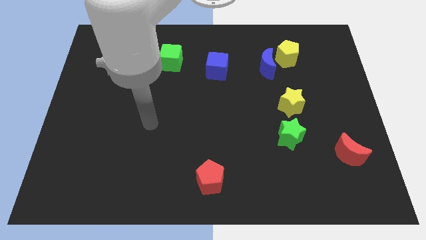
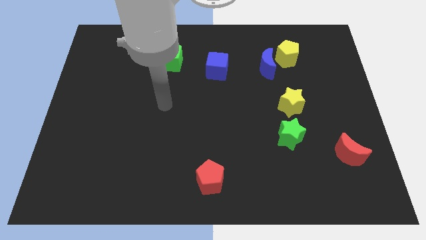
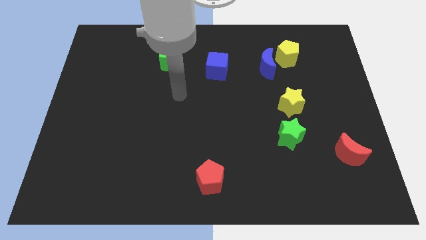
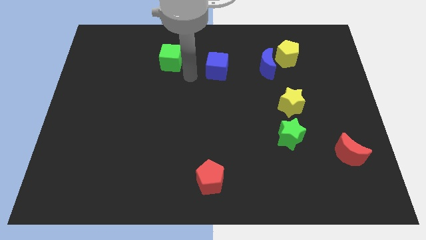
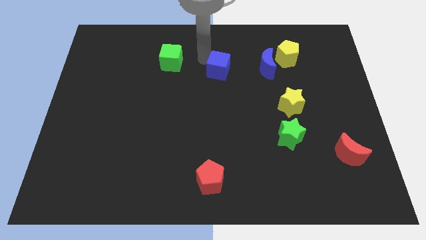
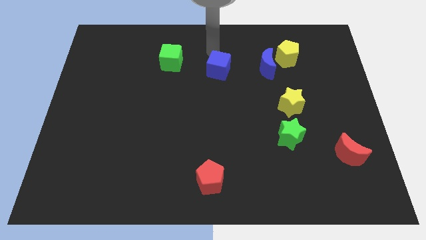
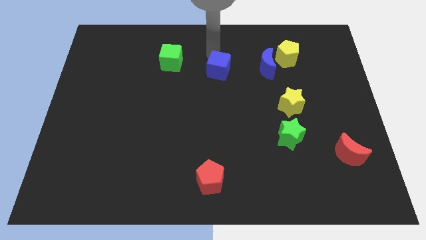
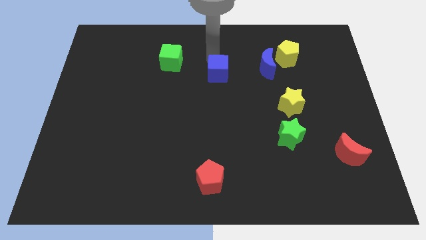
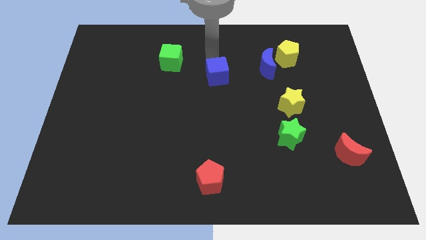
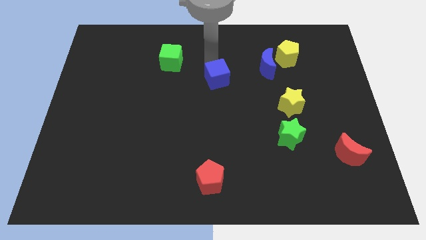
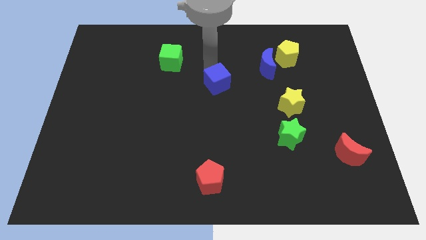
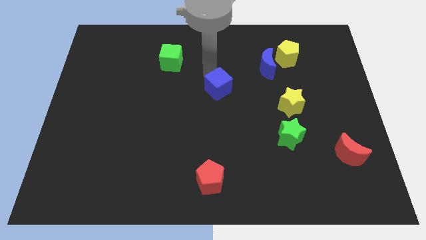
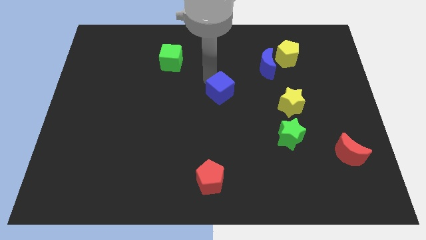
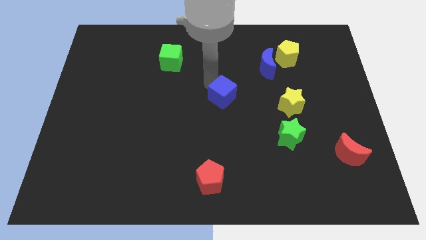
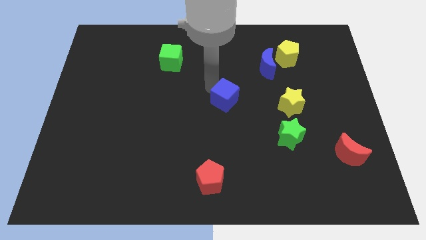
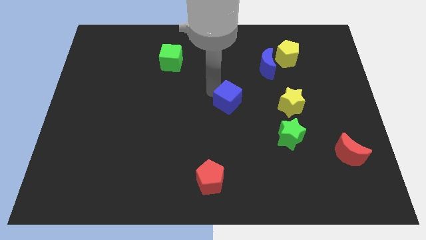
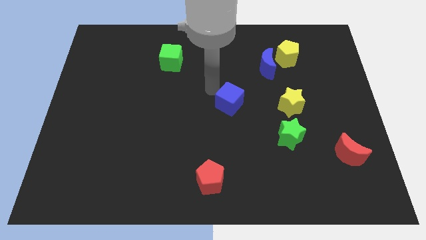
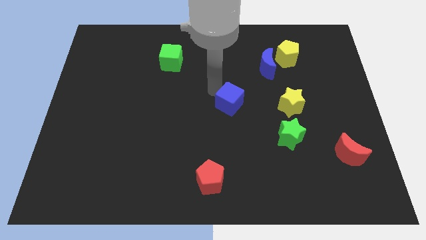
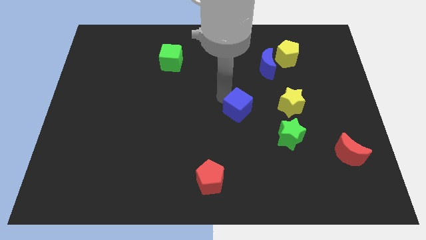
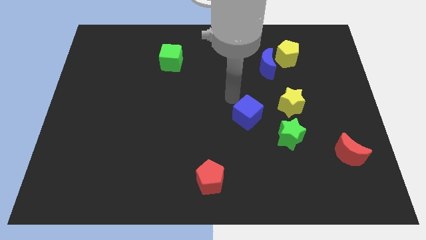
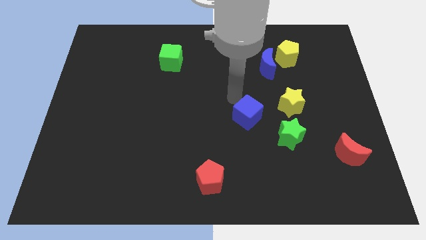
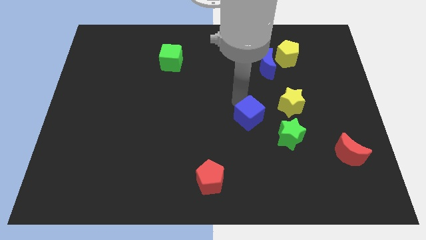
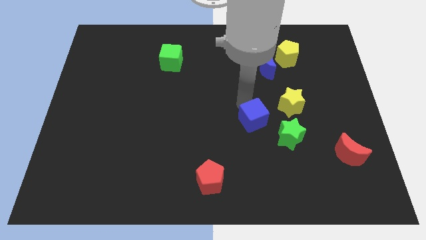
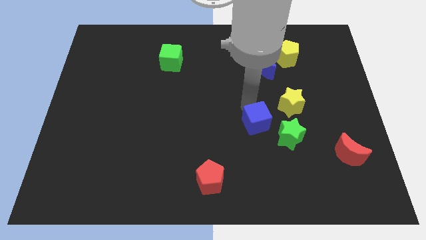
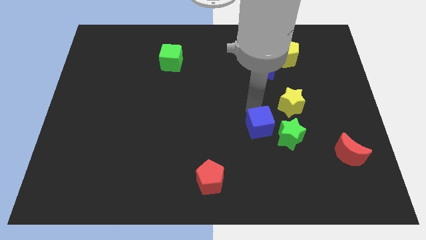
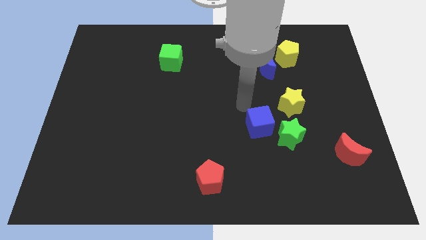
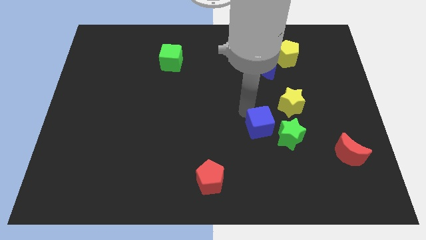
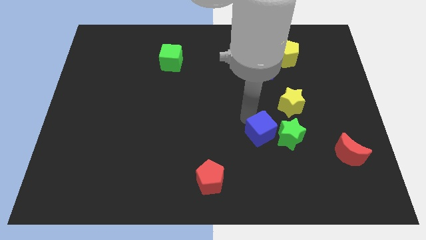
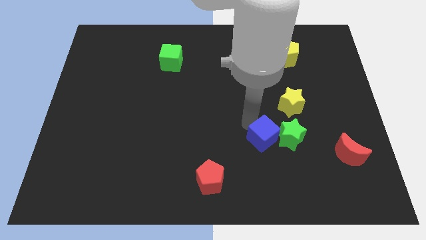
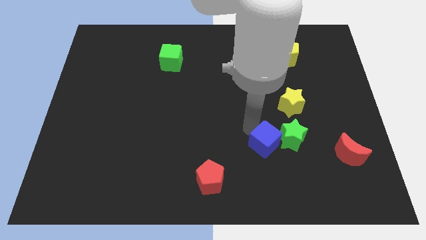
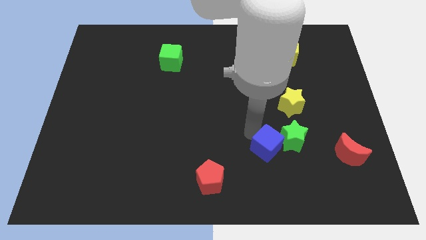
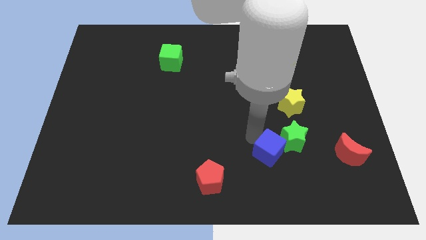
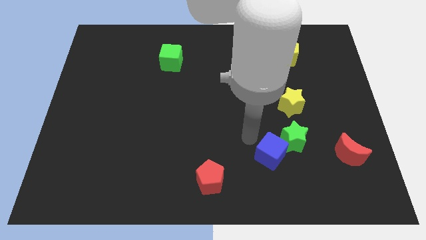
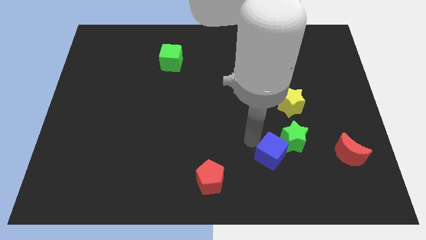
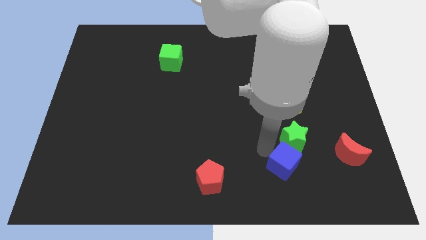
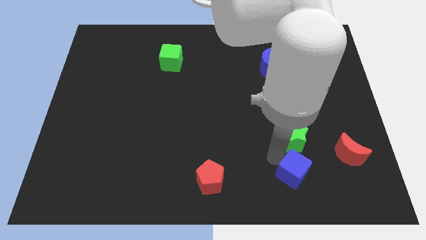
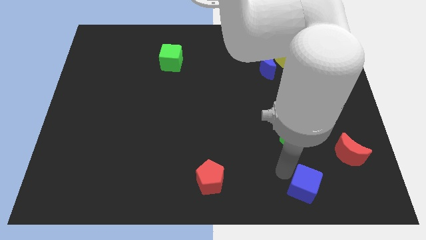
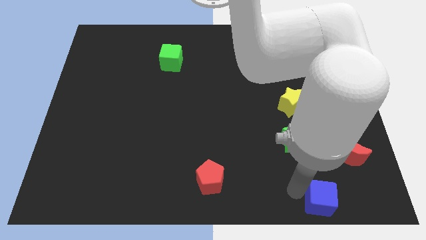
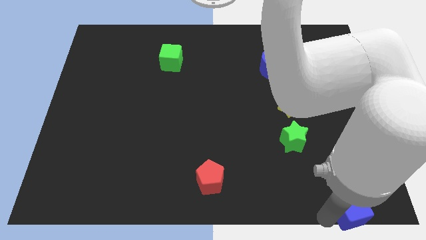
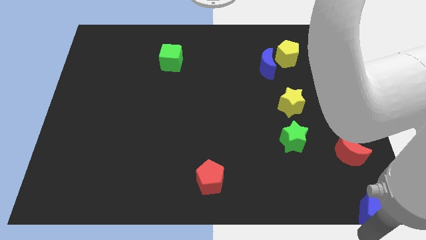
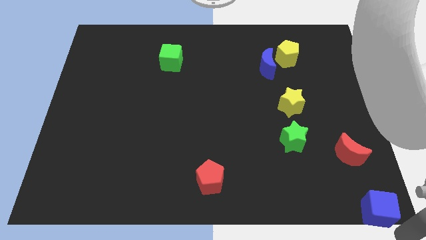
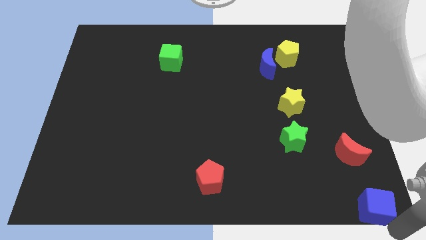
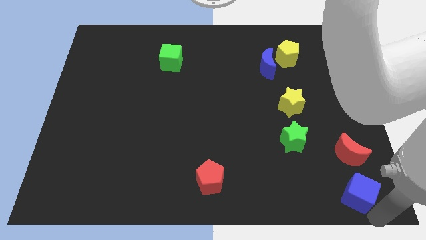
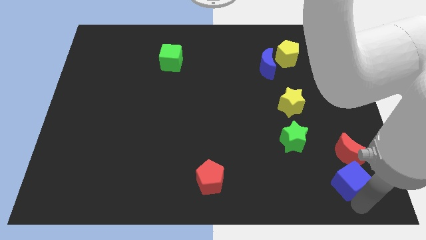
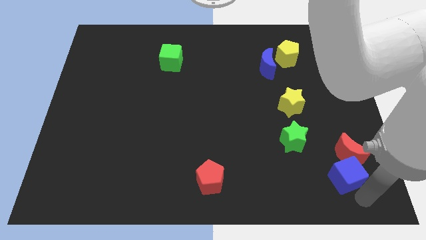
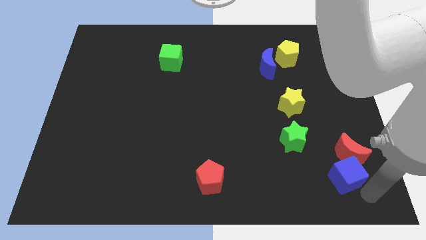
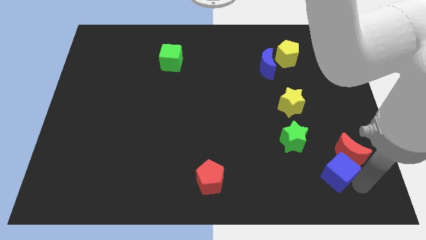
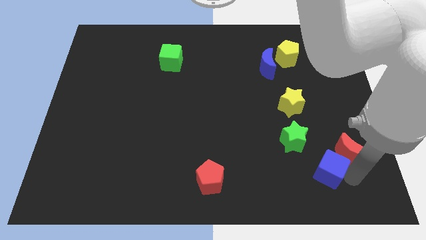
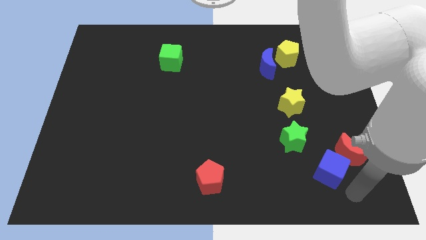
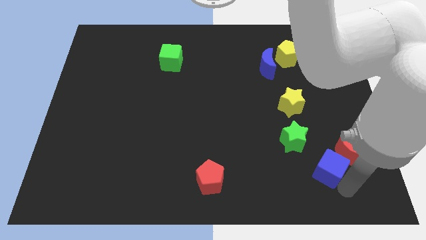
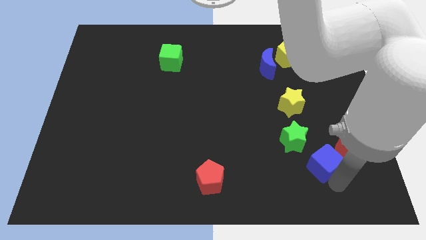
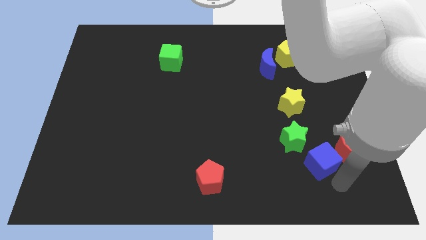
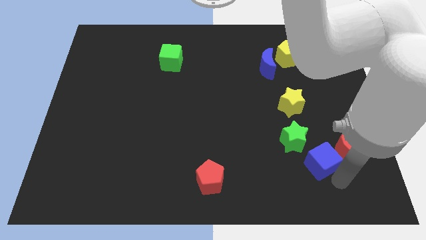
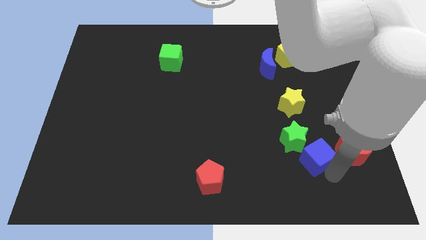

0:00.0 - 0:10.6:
slide the blue cube to the bottom of the yellow star

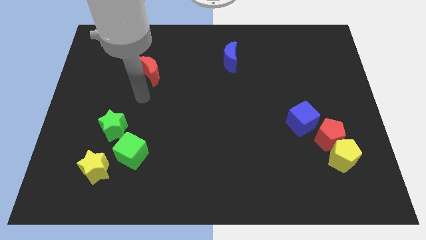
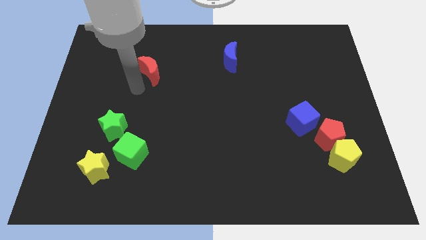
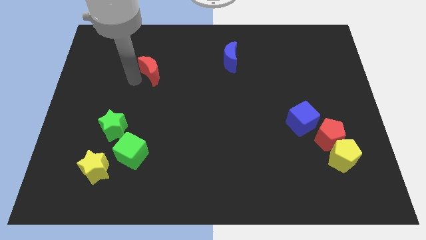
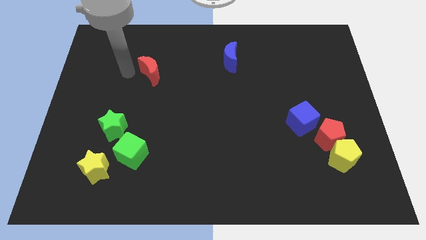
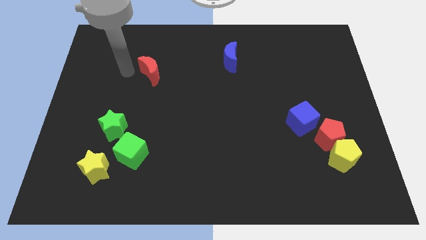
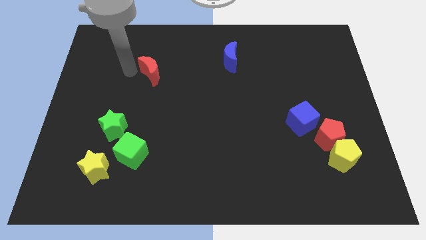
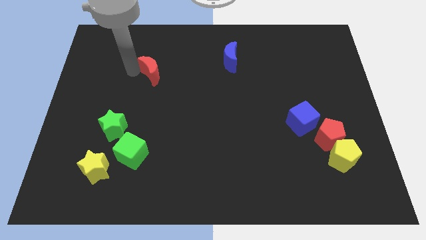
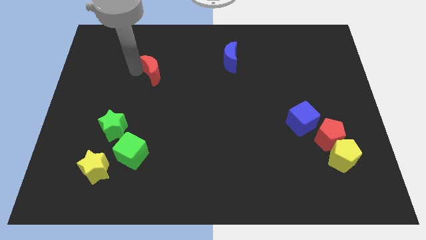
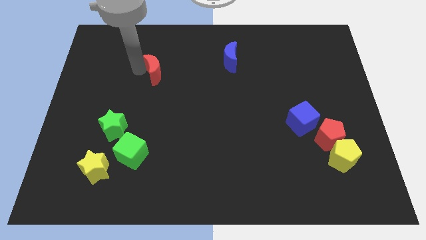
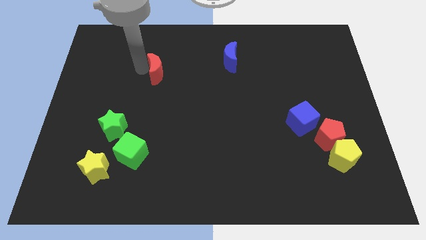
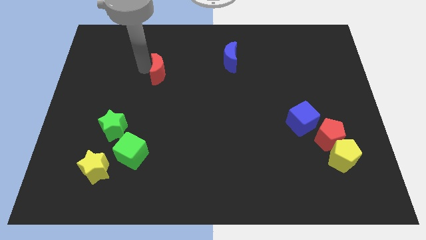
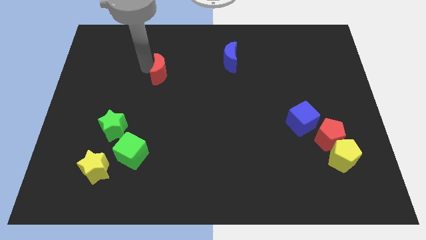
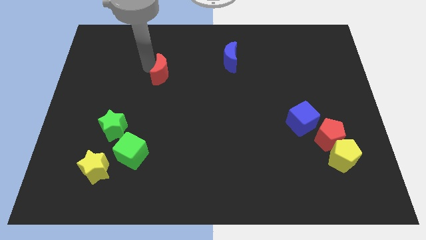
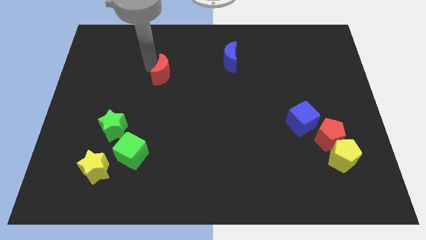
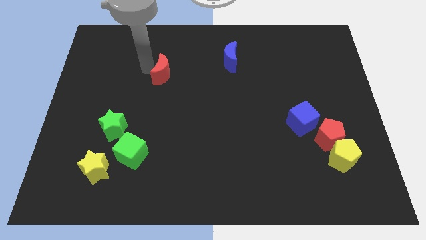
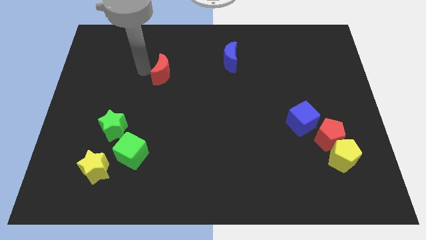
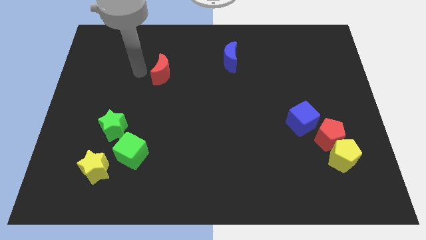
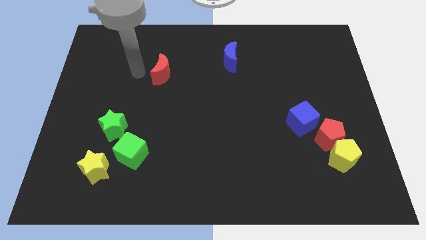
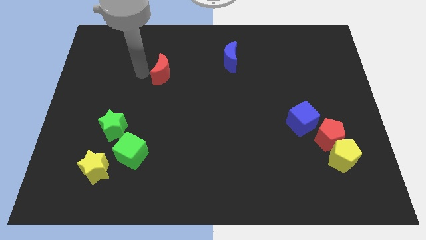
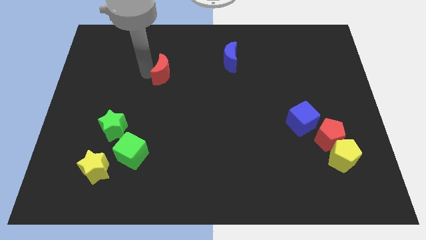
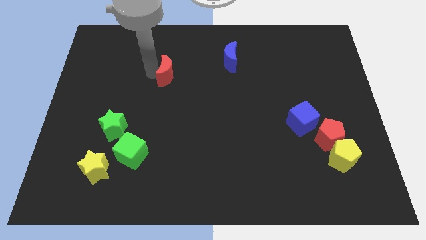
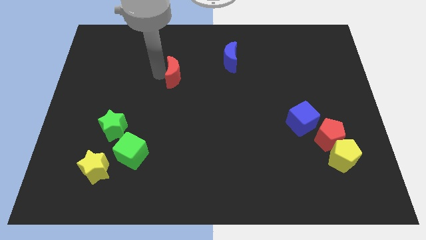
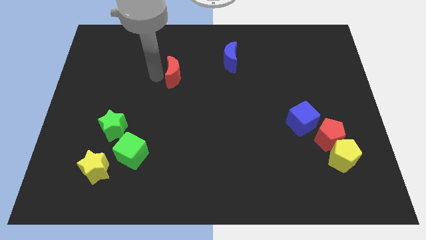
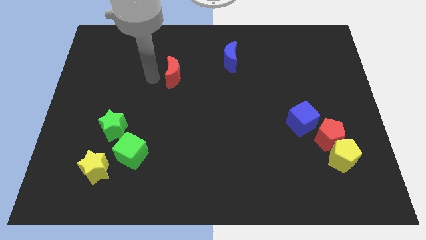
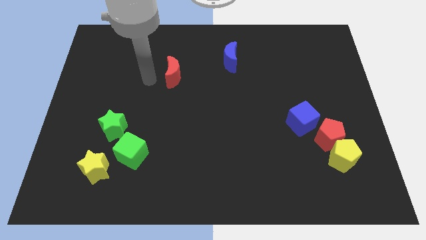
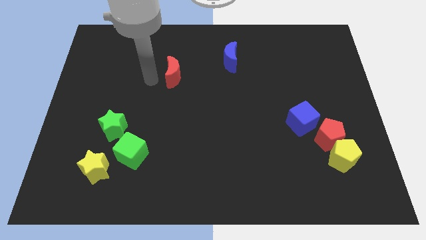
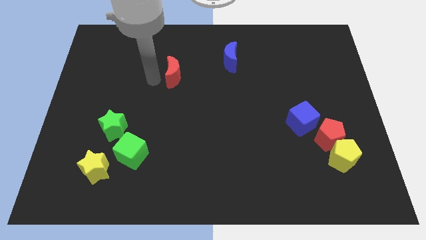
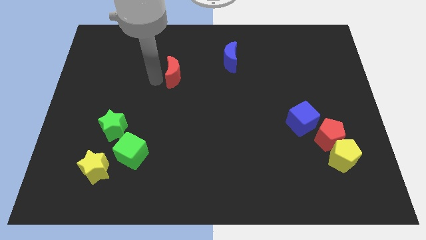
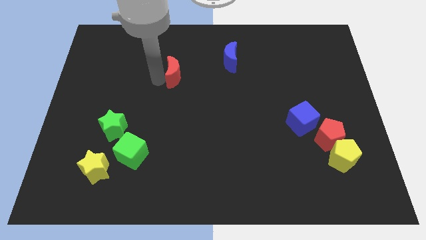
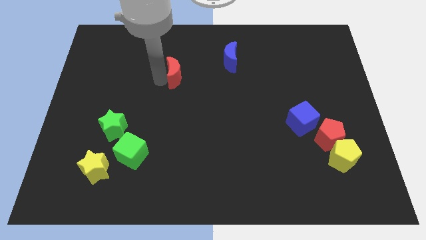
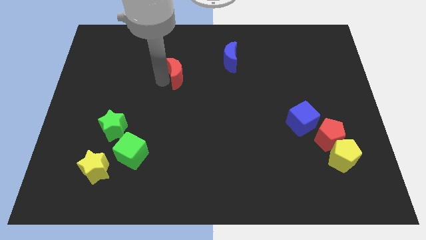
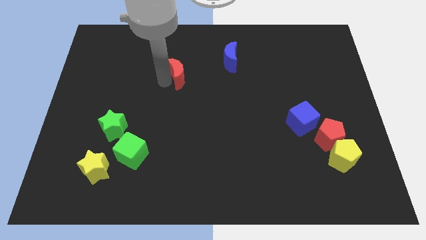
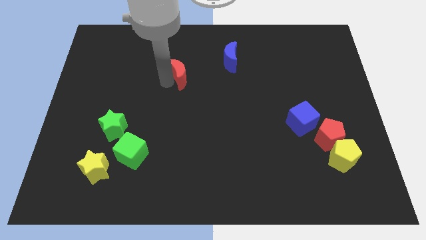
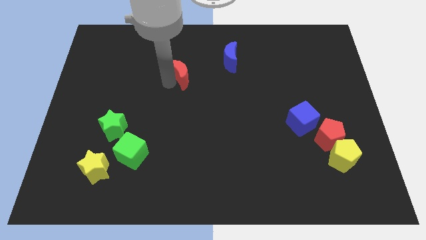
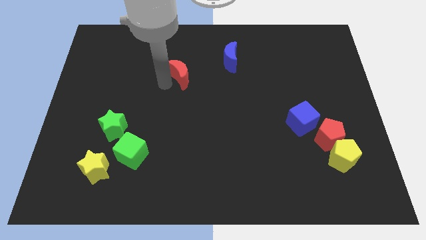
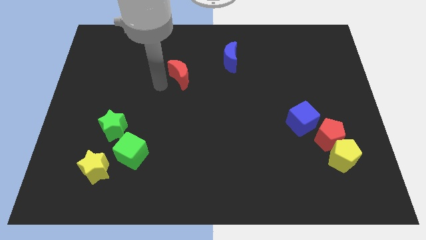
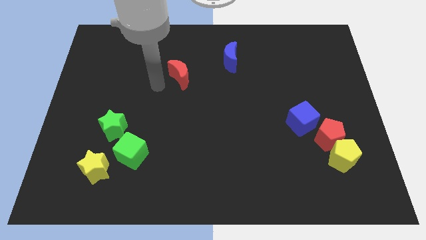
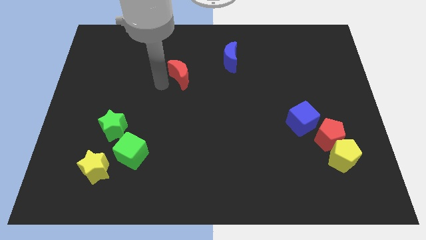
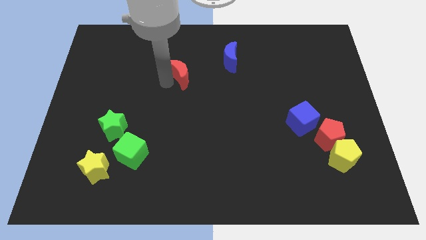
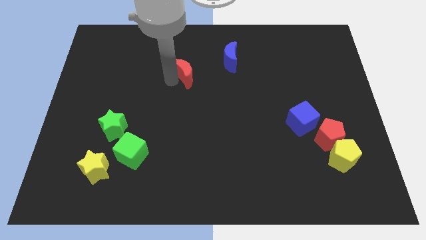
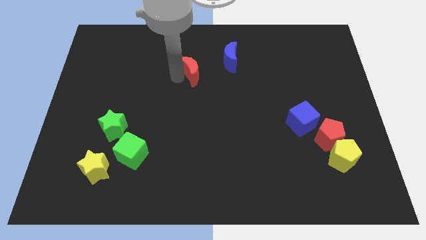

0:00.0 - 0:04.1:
move the red moon diagonally down and to the left of the blue moon
